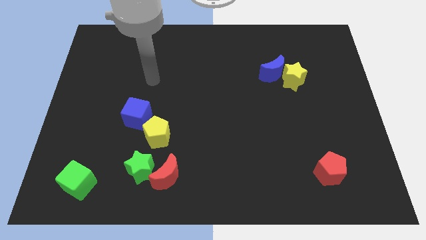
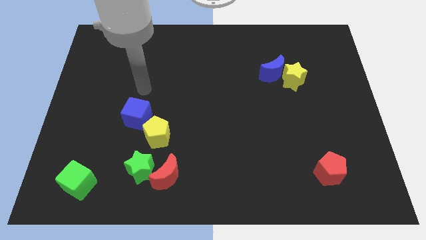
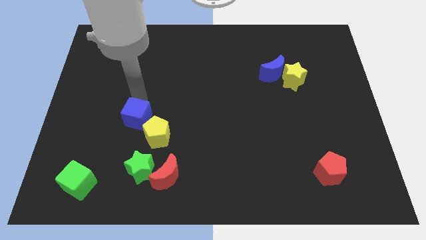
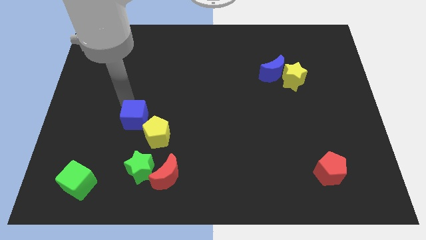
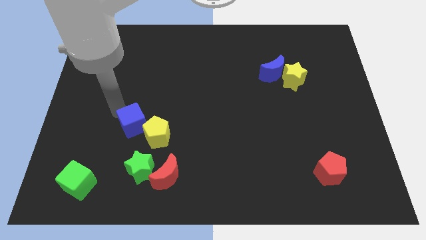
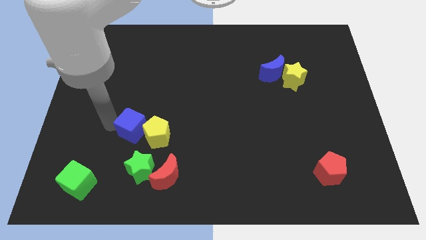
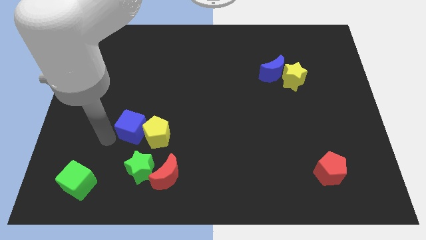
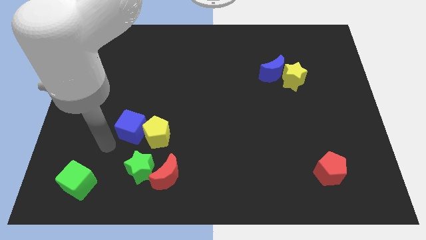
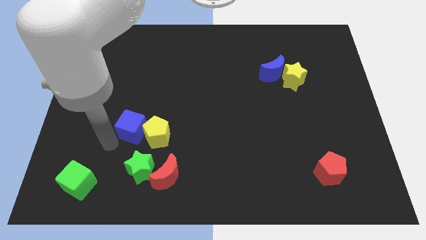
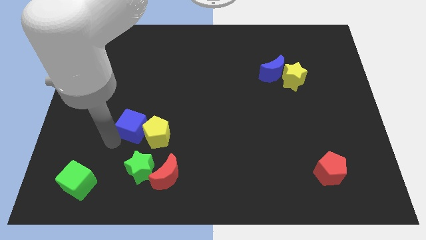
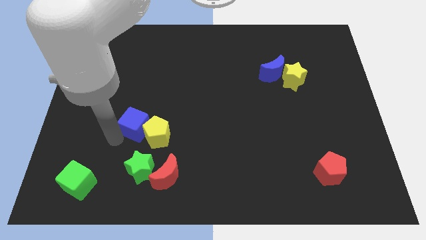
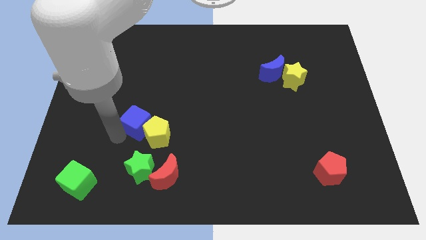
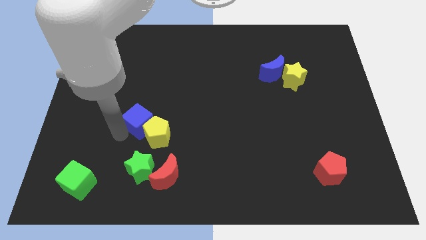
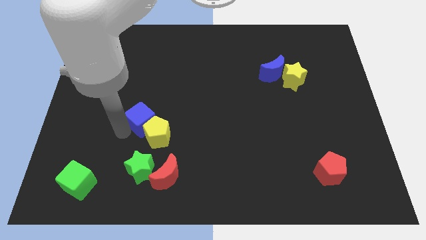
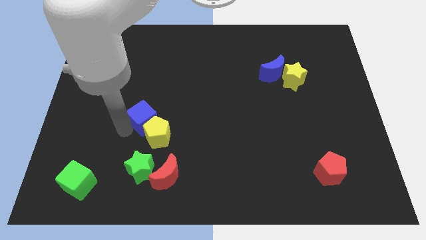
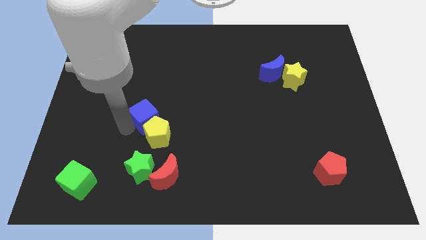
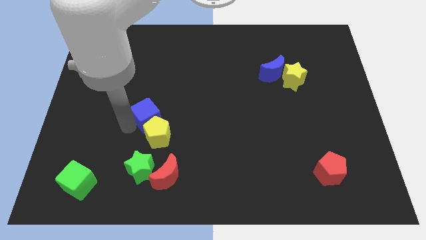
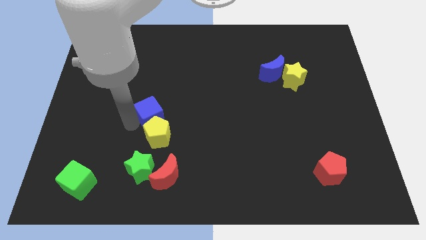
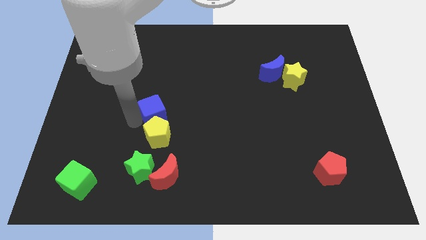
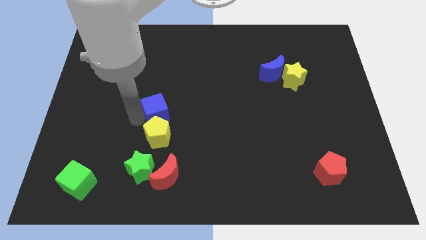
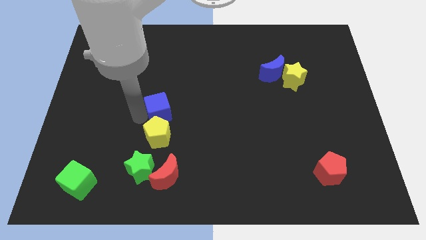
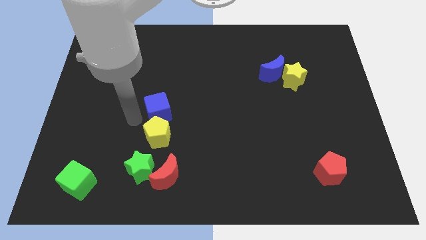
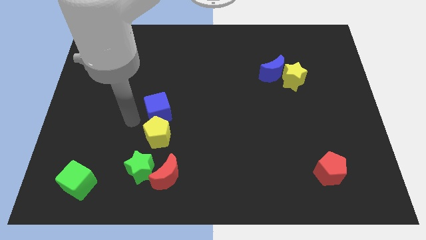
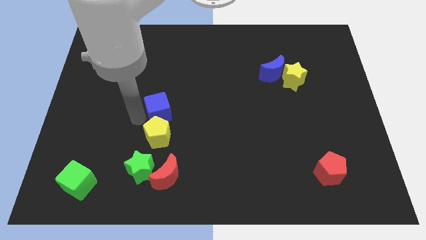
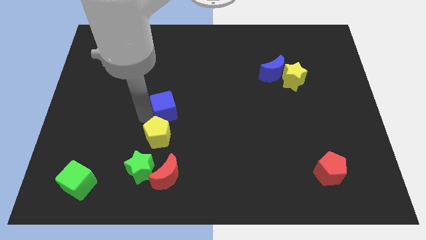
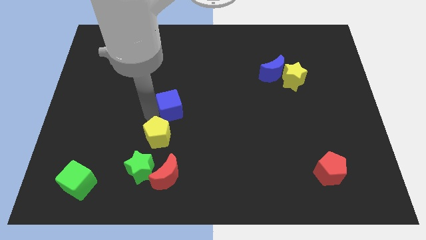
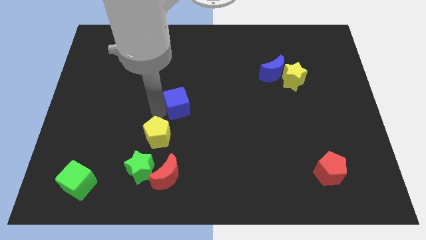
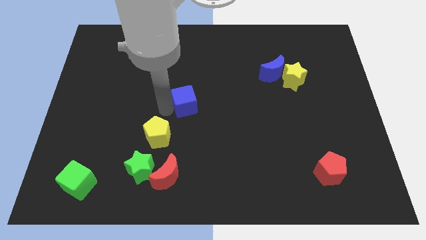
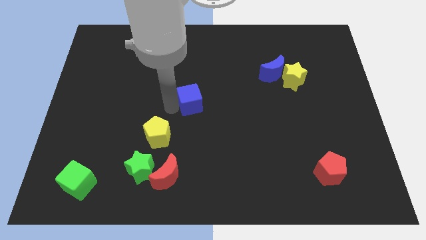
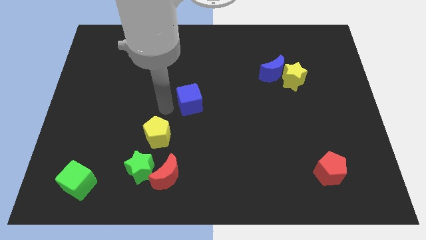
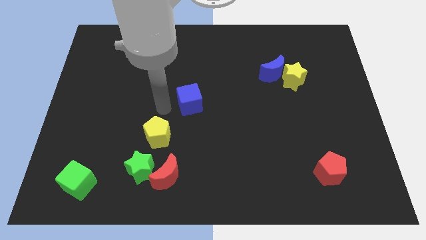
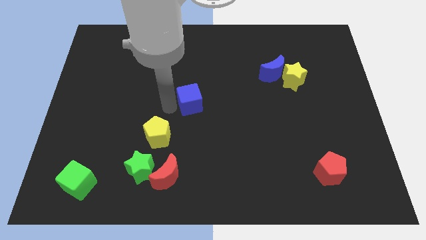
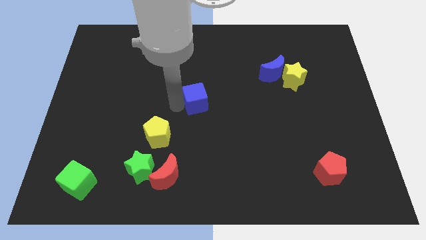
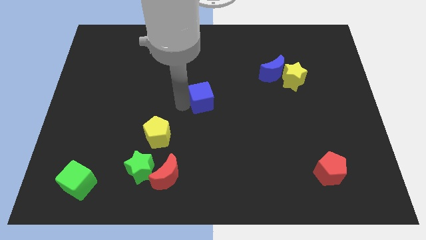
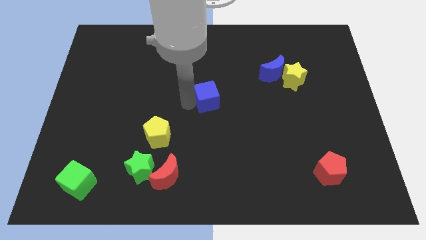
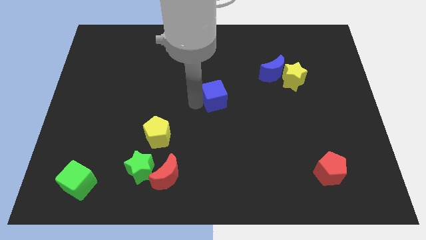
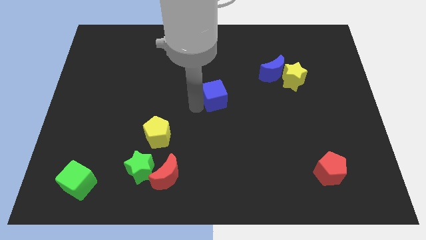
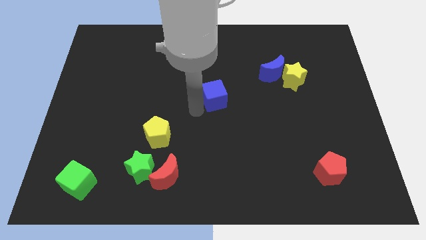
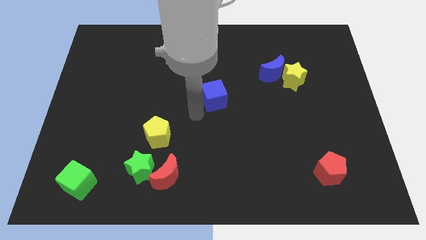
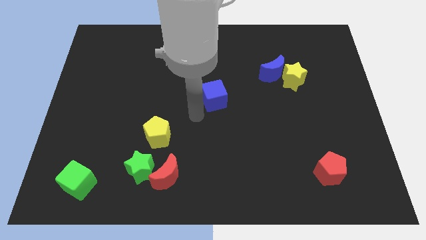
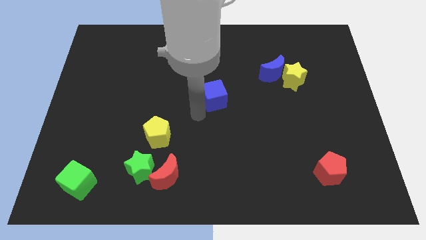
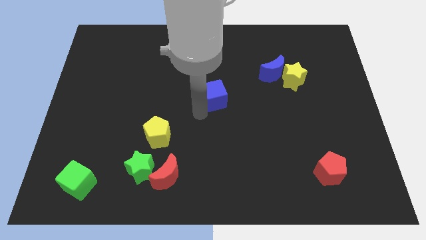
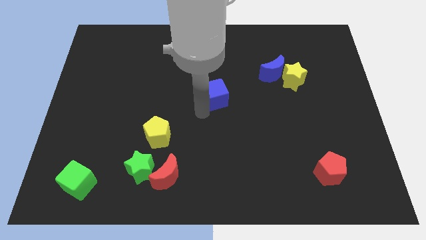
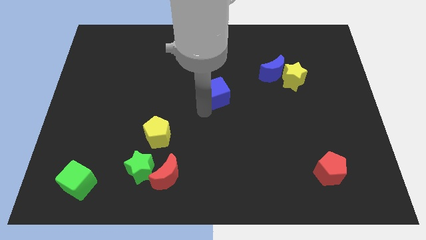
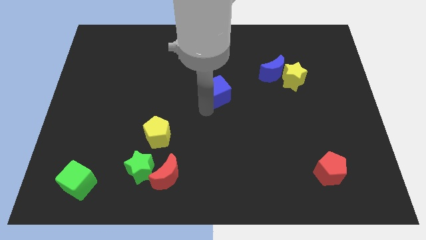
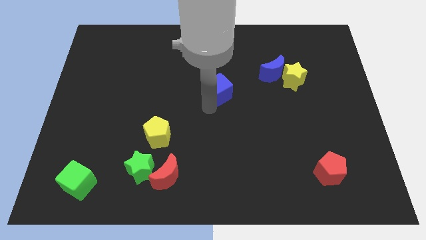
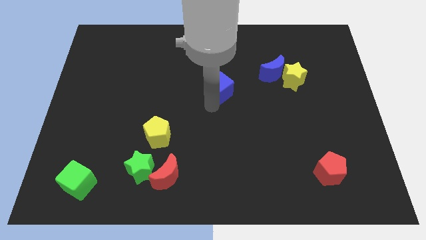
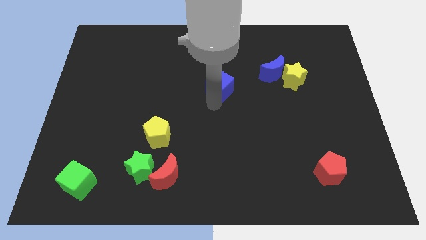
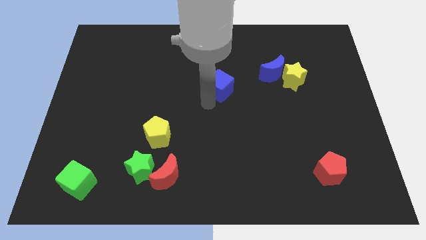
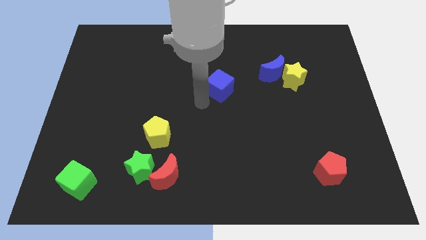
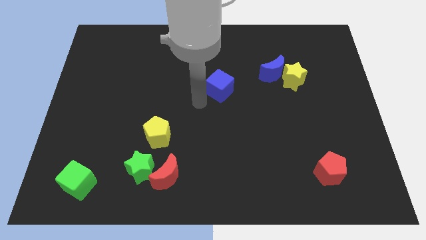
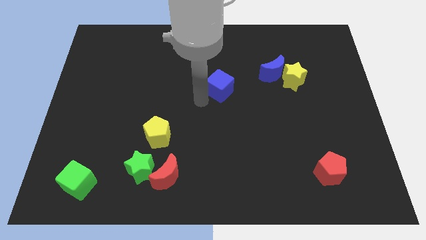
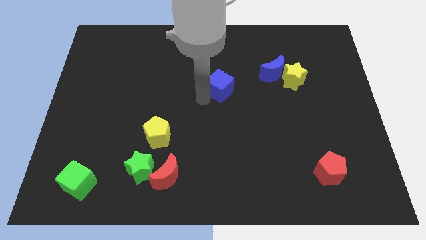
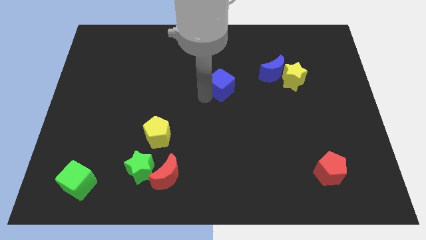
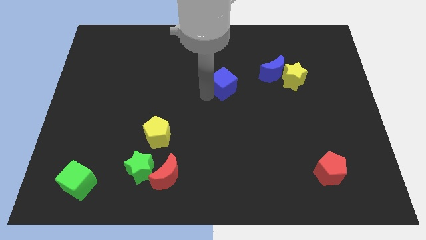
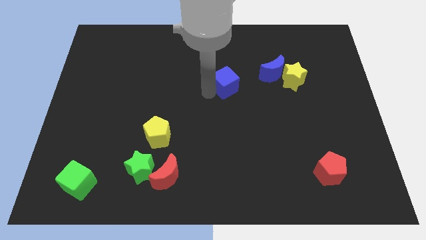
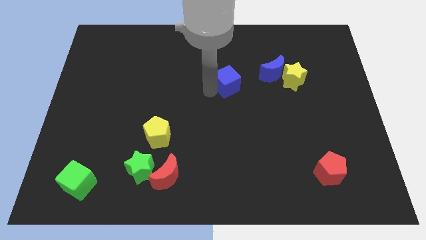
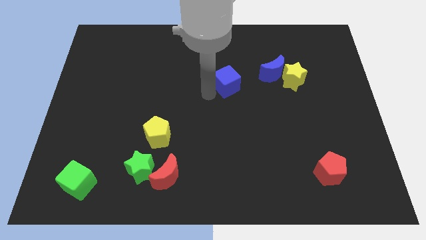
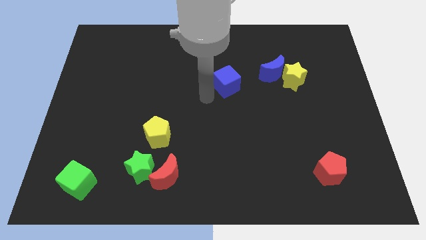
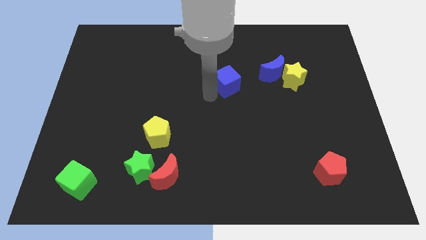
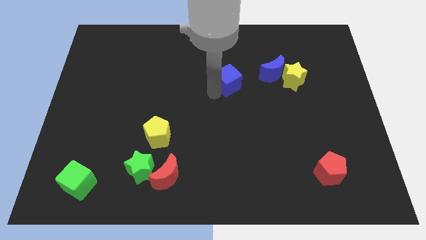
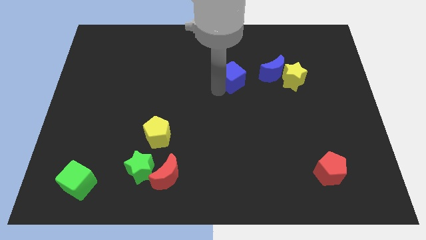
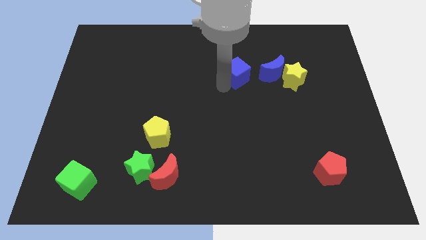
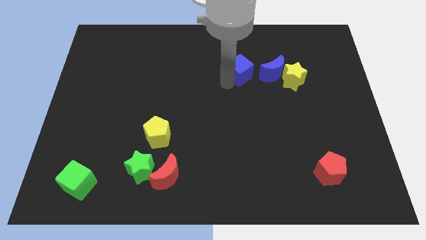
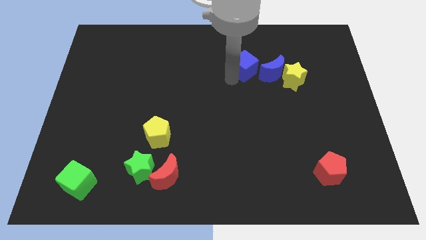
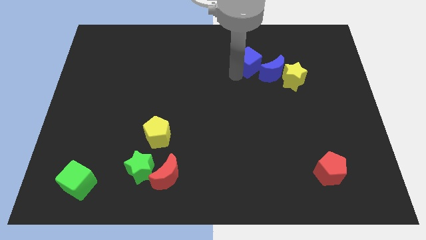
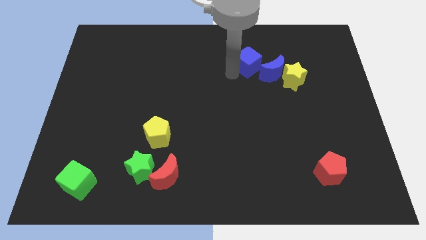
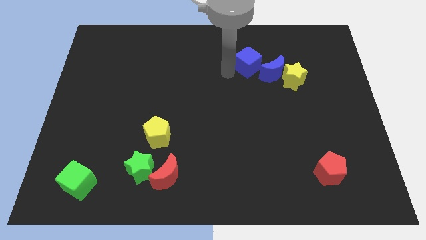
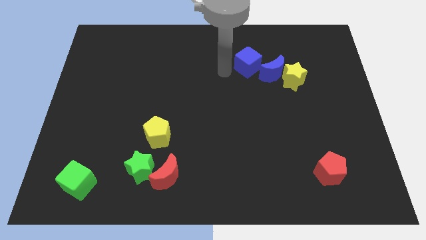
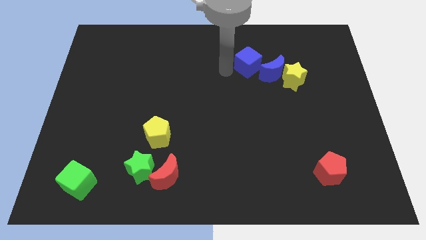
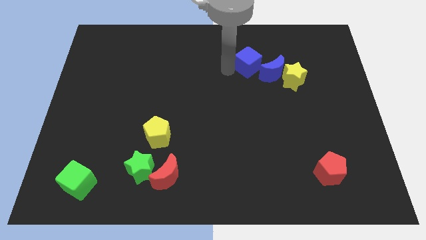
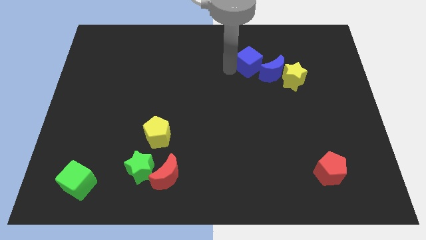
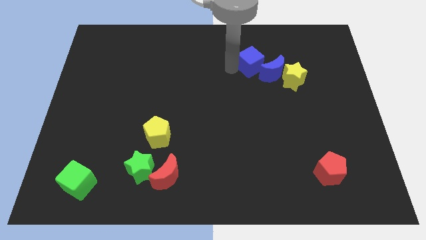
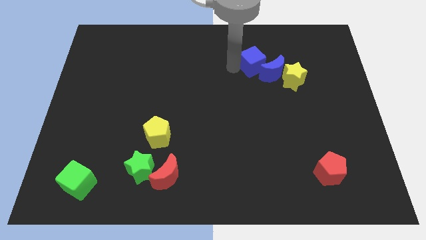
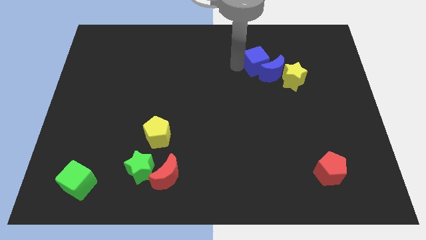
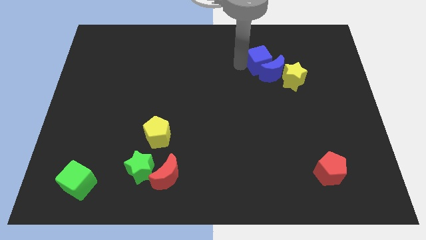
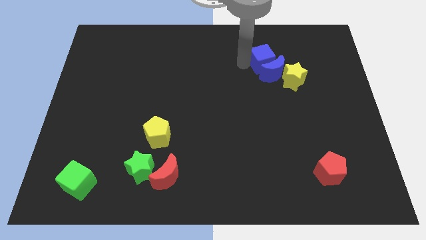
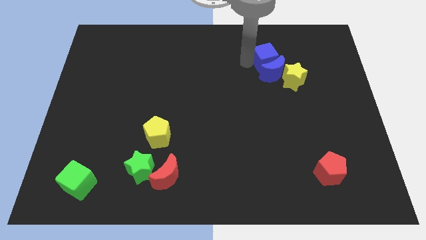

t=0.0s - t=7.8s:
slide the blue cube diagonally up and to the right of the blue moon
